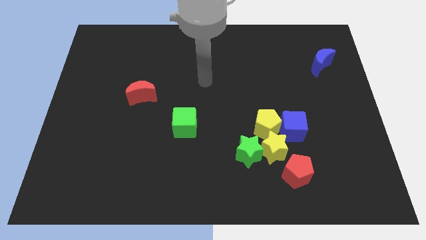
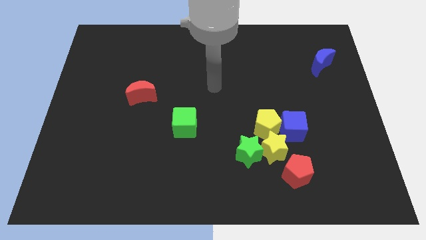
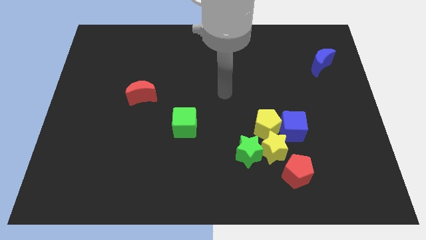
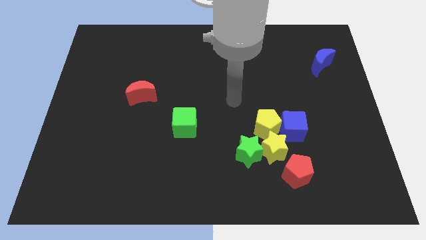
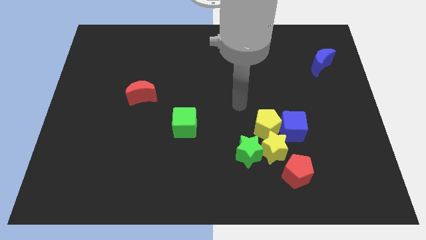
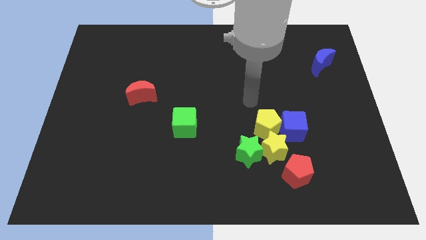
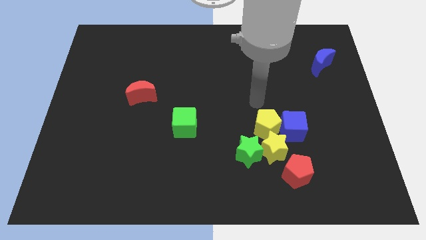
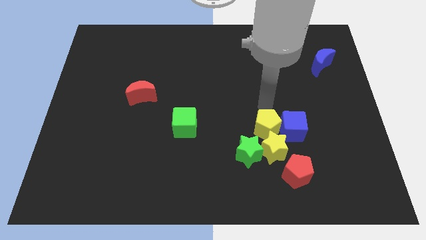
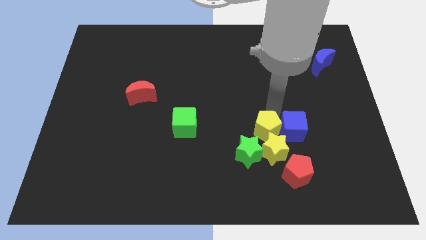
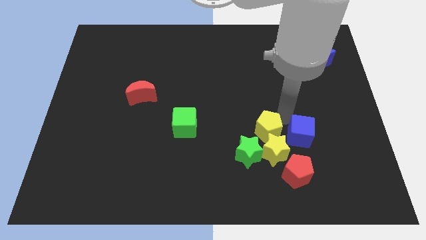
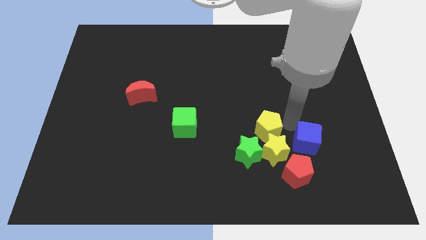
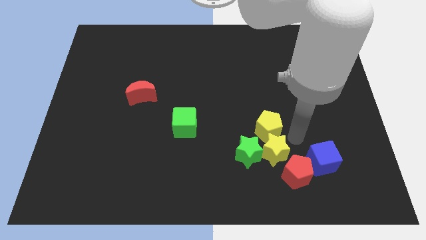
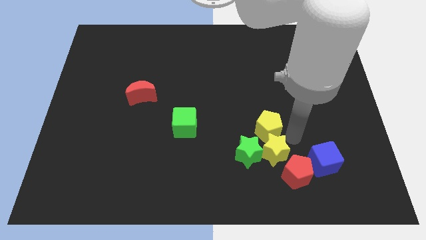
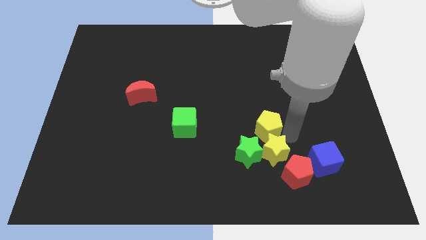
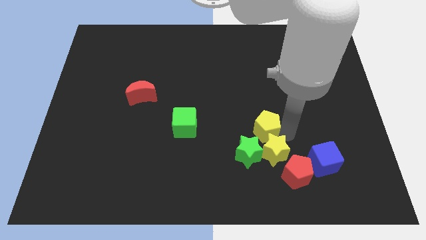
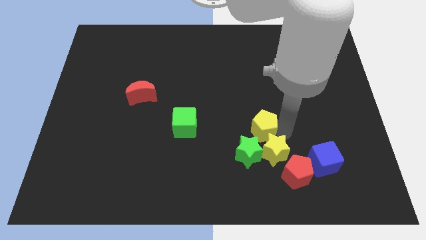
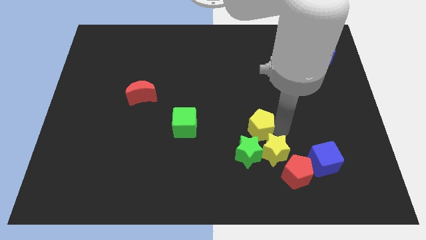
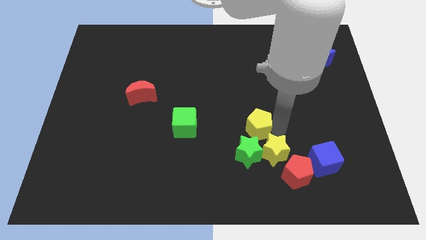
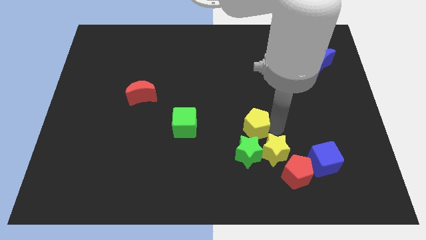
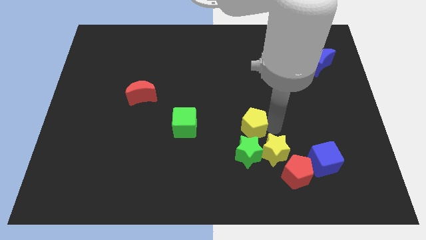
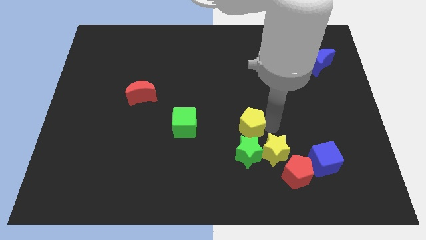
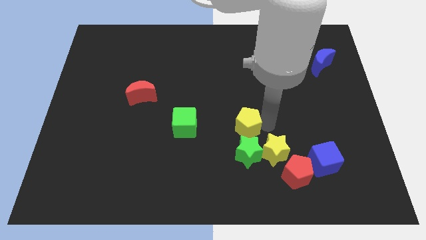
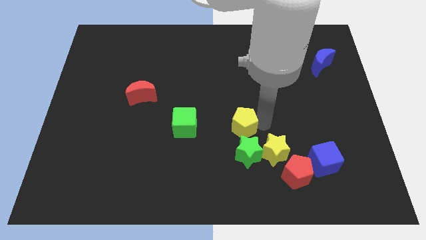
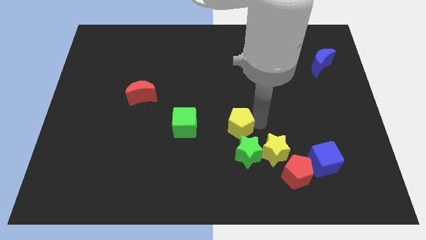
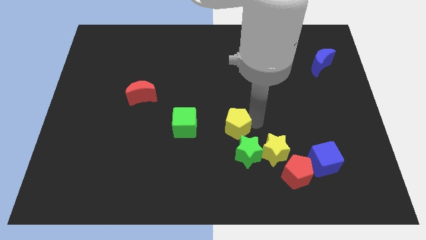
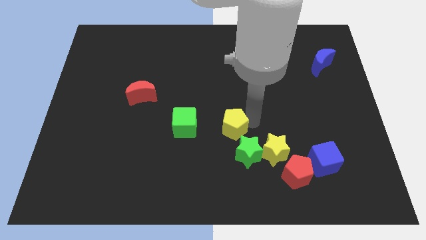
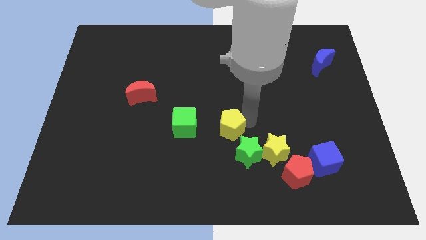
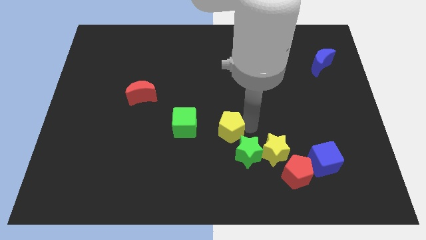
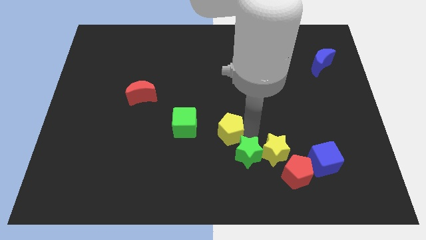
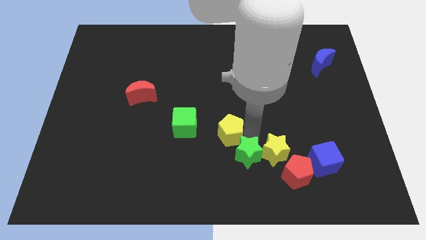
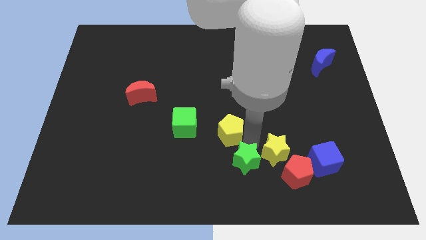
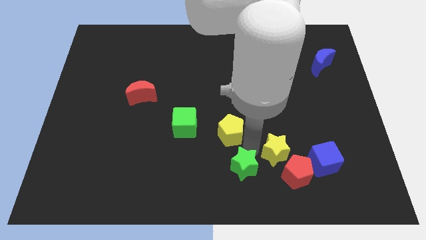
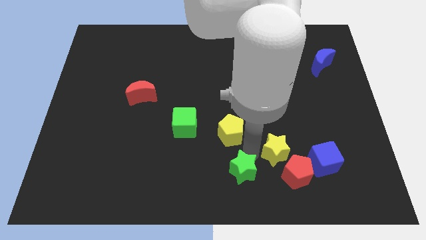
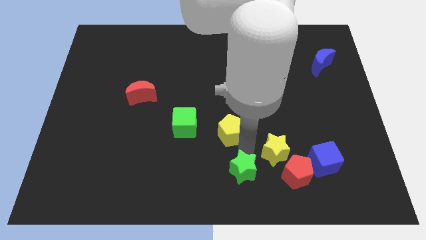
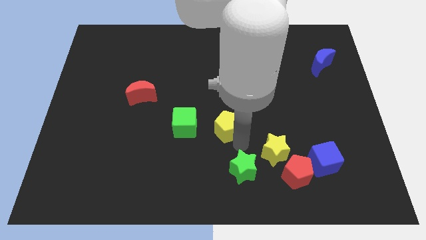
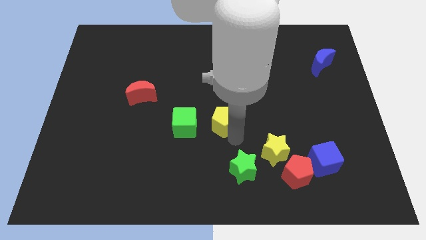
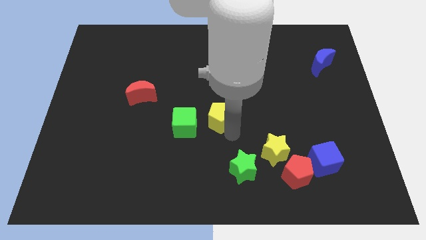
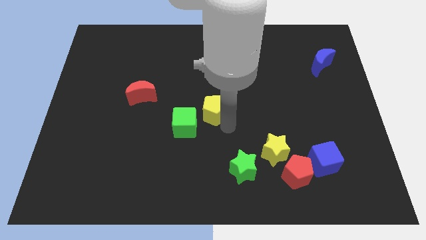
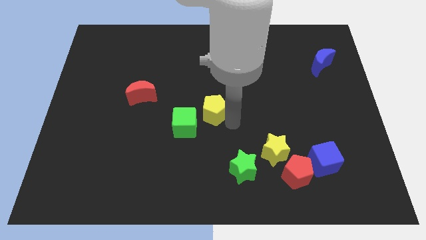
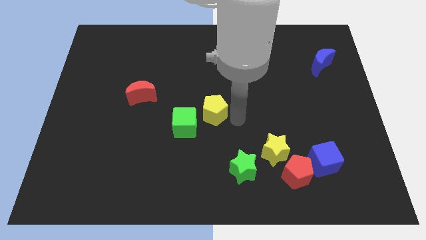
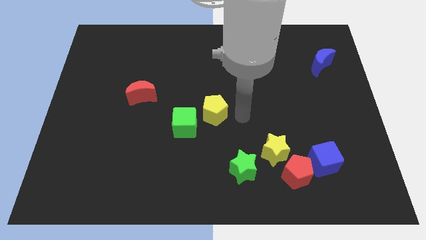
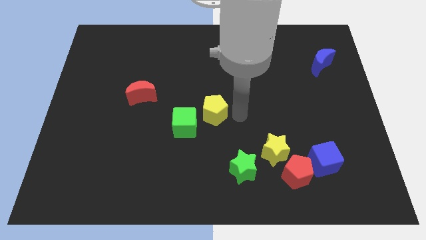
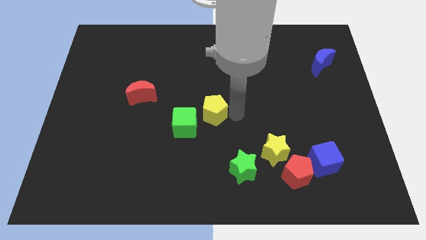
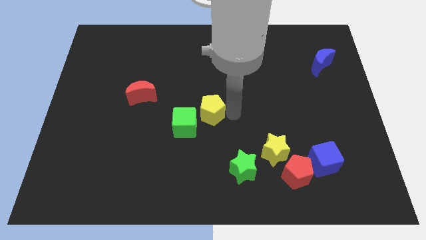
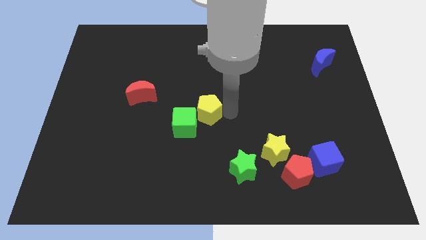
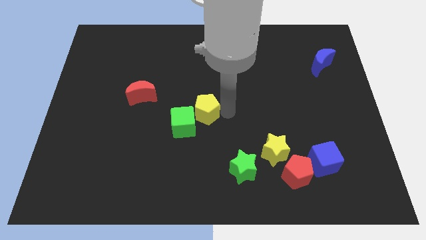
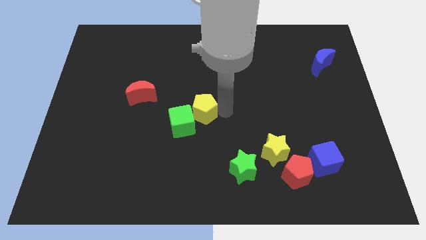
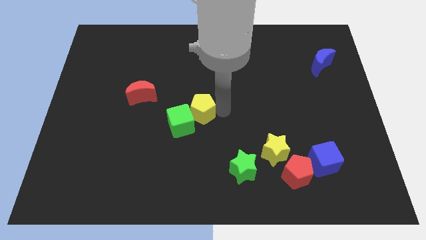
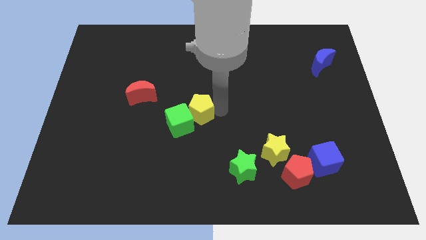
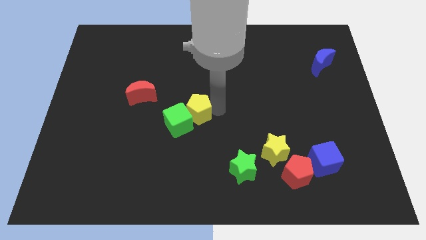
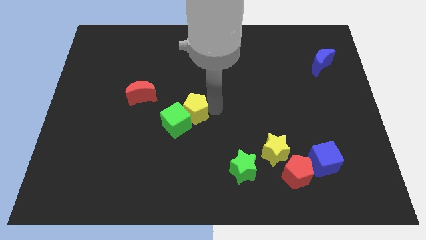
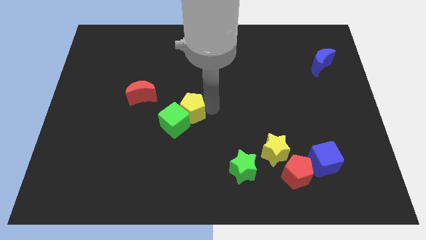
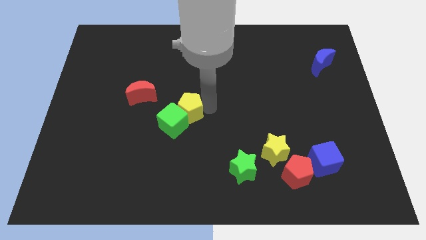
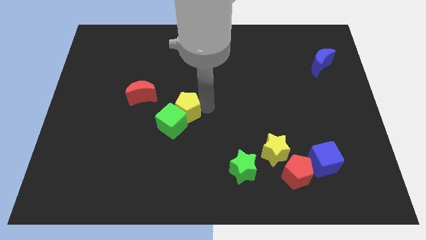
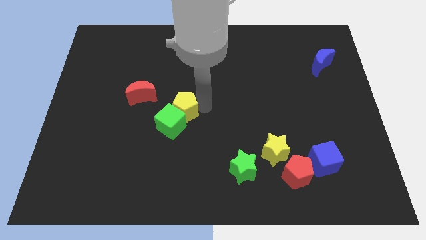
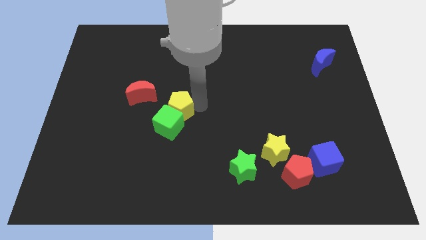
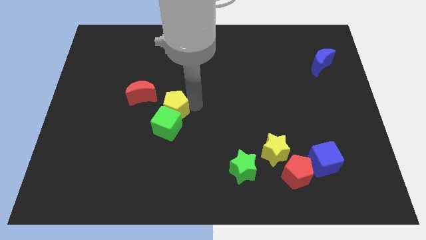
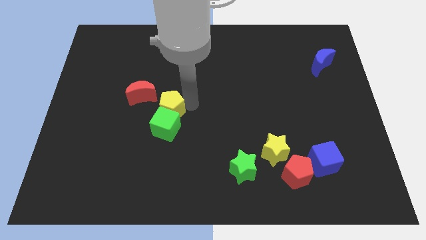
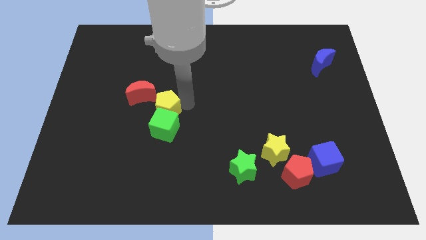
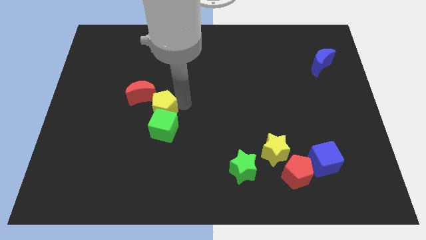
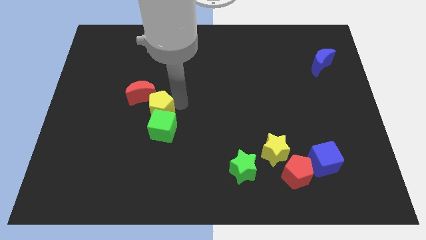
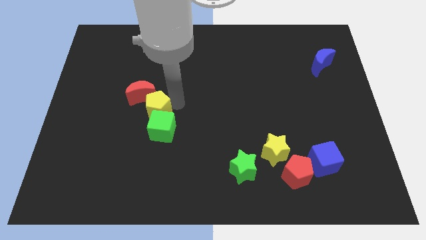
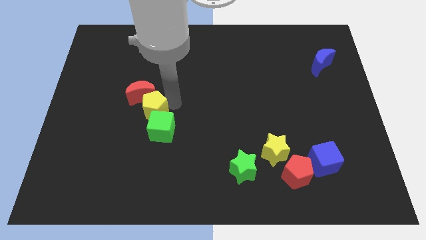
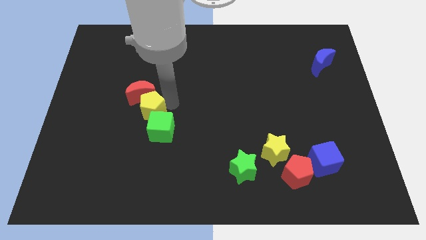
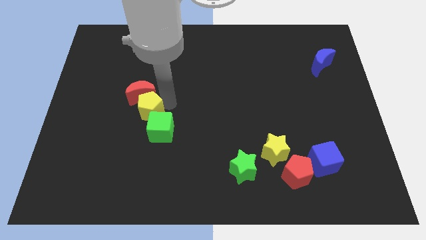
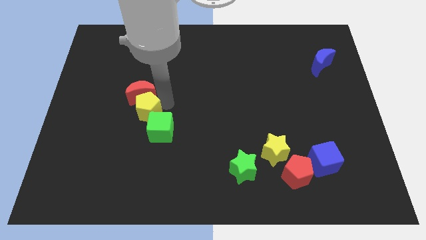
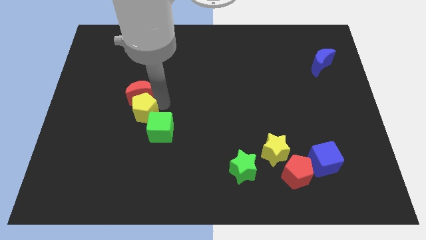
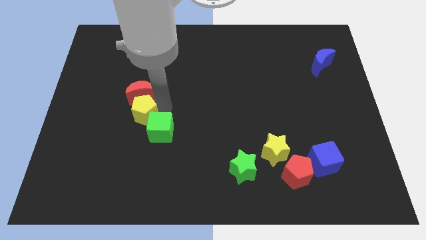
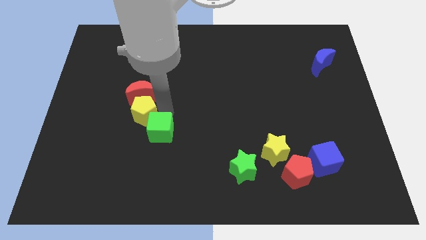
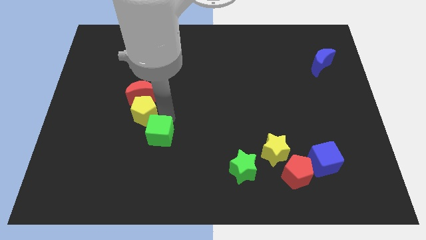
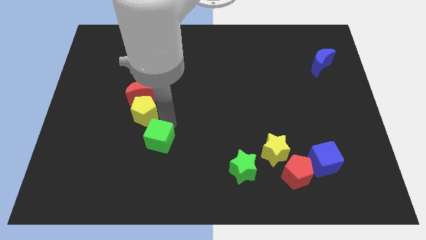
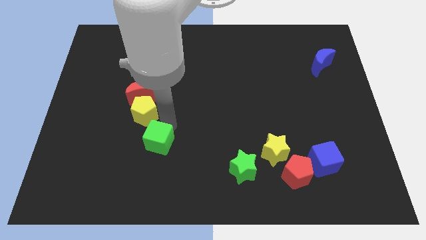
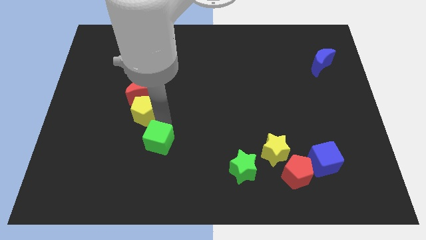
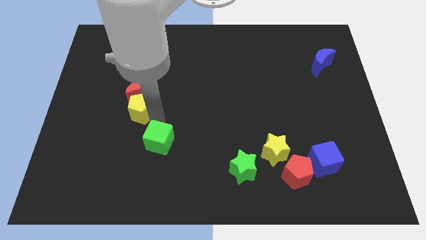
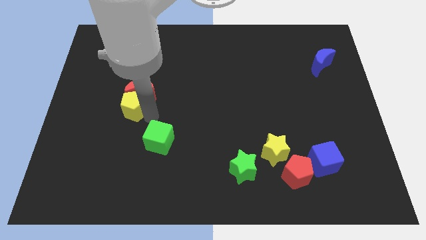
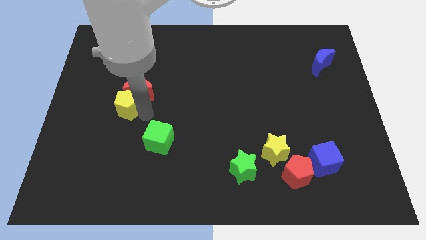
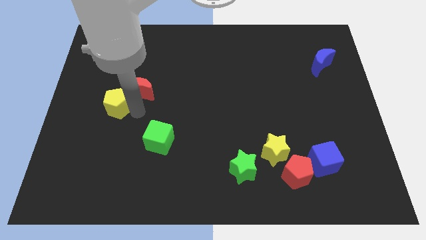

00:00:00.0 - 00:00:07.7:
slide the yellow pentagon just left of the red moon
